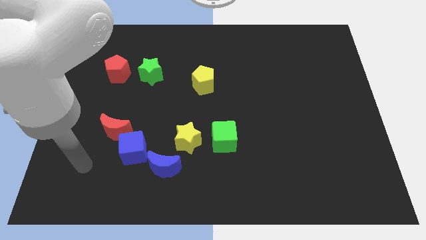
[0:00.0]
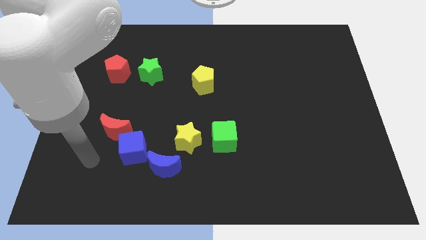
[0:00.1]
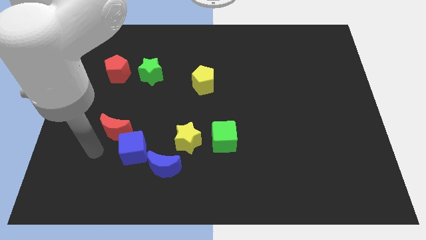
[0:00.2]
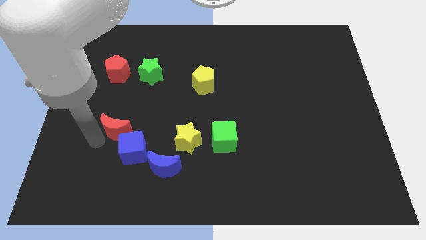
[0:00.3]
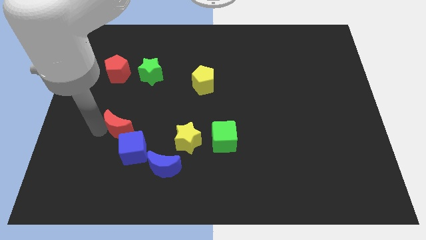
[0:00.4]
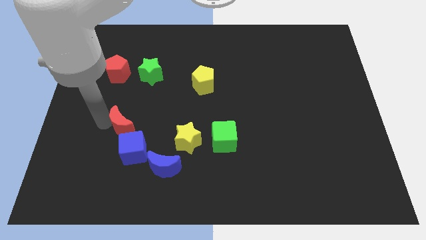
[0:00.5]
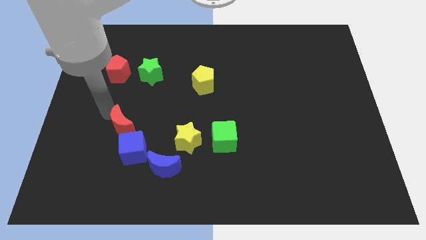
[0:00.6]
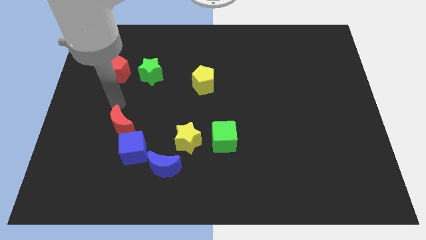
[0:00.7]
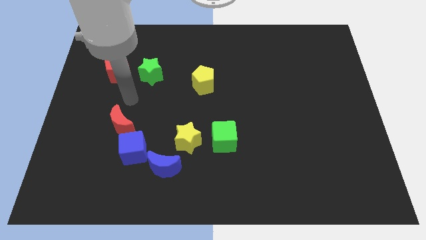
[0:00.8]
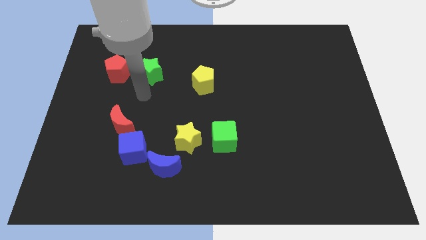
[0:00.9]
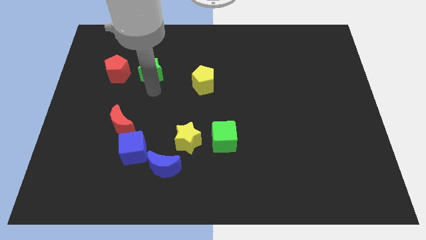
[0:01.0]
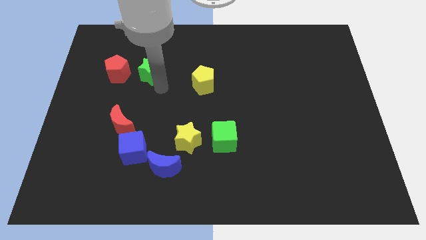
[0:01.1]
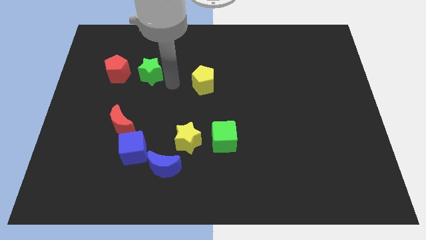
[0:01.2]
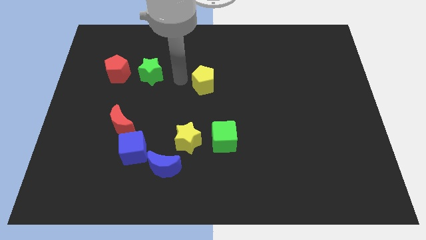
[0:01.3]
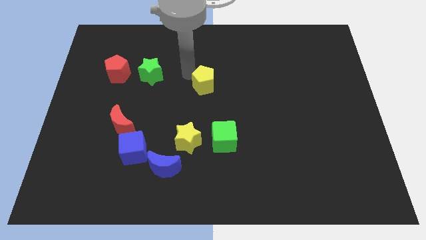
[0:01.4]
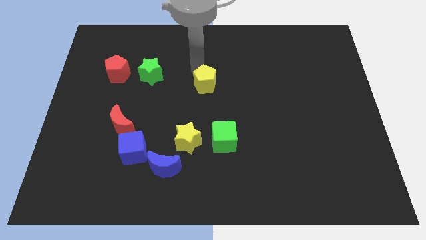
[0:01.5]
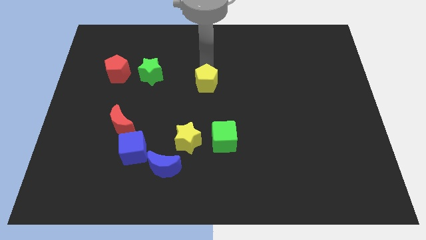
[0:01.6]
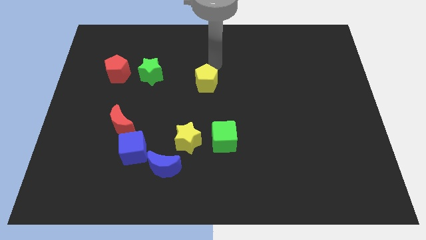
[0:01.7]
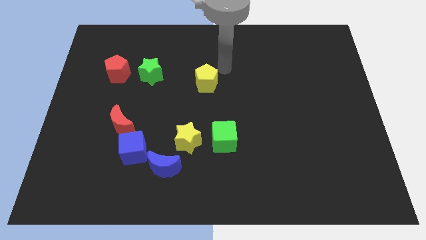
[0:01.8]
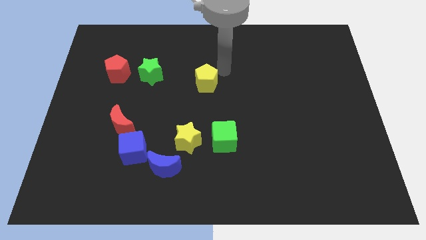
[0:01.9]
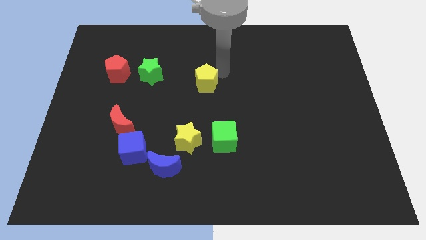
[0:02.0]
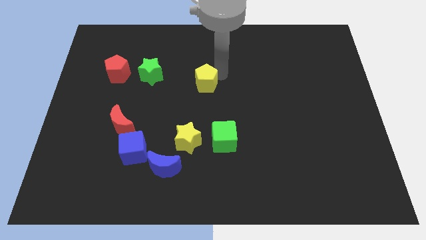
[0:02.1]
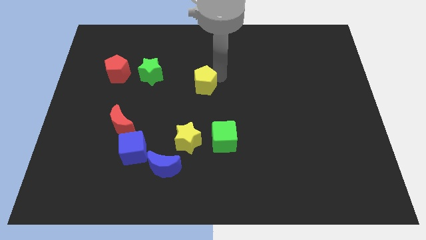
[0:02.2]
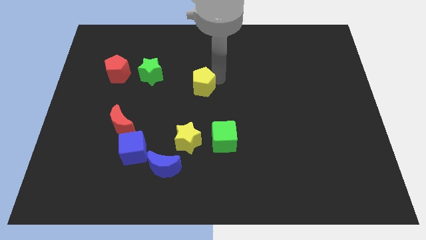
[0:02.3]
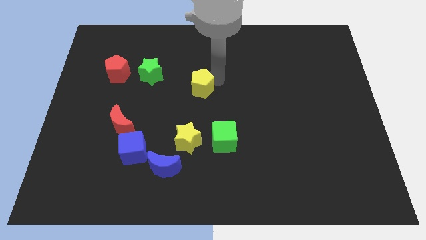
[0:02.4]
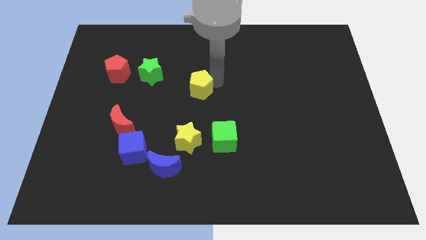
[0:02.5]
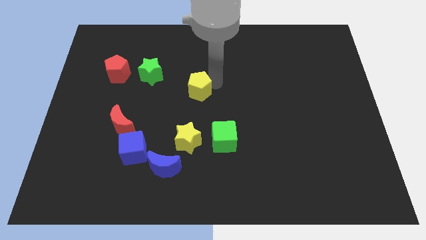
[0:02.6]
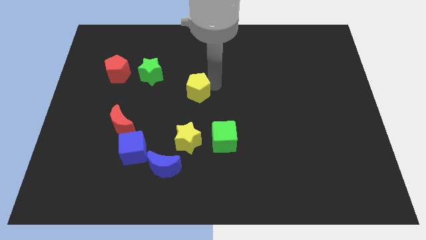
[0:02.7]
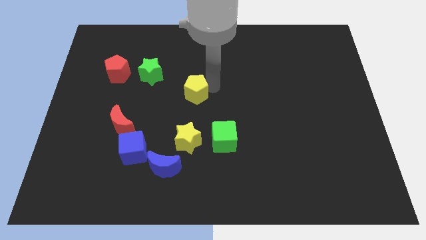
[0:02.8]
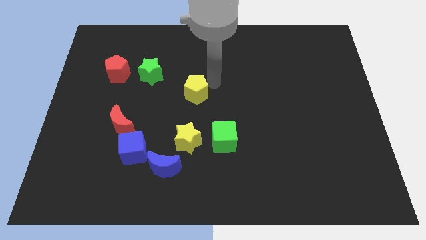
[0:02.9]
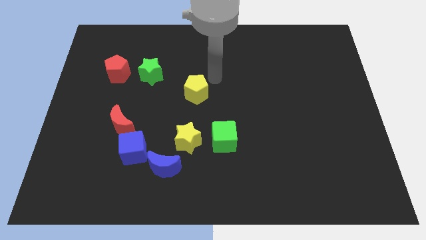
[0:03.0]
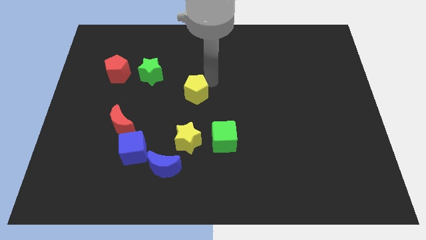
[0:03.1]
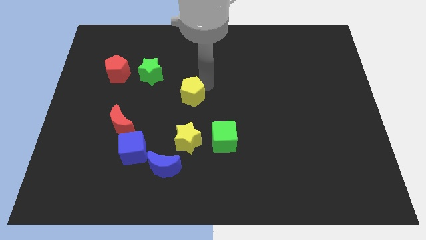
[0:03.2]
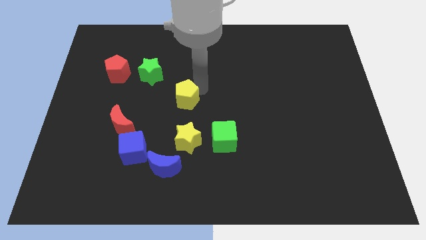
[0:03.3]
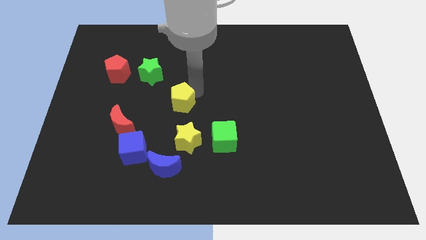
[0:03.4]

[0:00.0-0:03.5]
slide the yellow pentagon downwards and left a bit

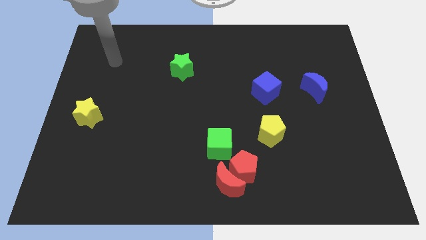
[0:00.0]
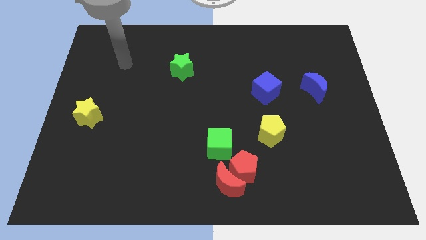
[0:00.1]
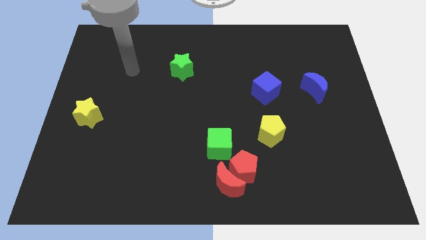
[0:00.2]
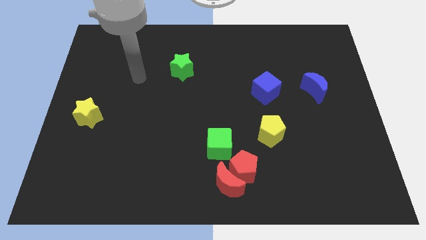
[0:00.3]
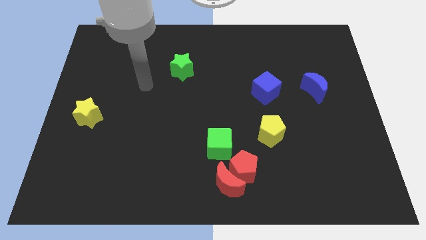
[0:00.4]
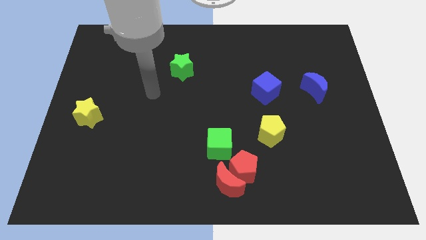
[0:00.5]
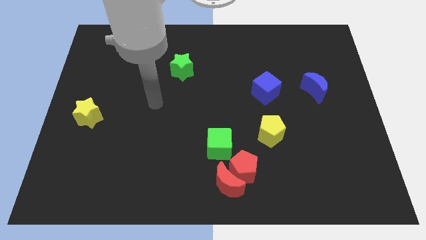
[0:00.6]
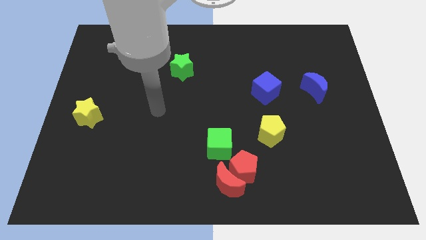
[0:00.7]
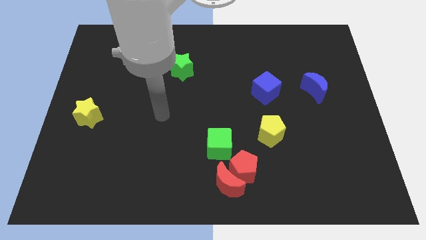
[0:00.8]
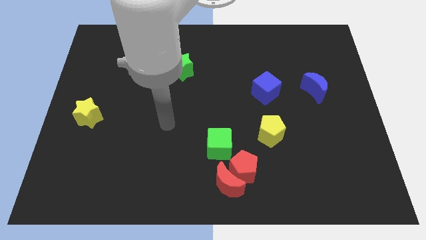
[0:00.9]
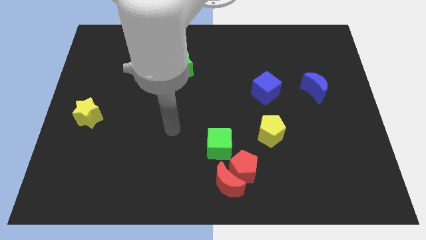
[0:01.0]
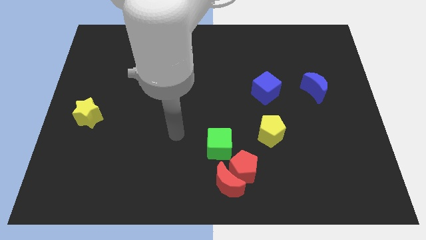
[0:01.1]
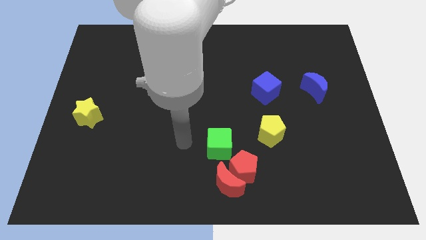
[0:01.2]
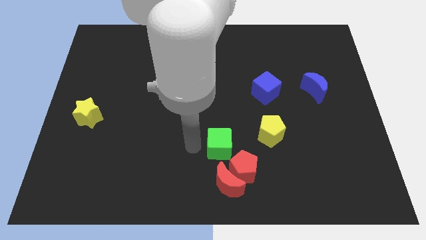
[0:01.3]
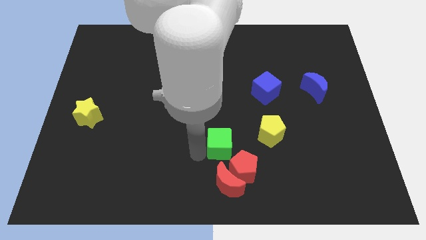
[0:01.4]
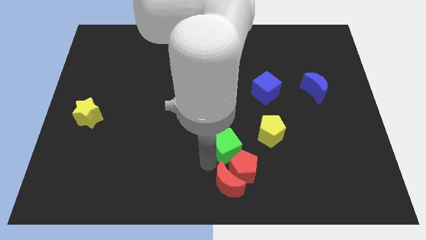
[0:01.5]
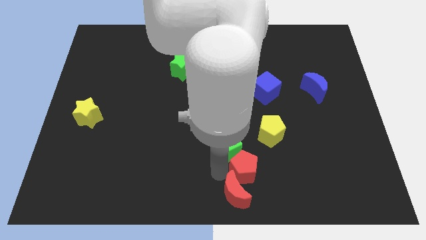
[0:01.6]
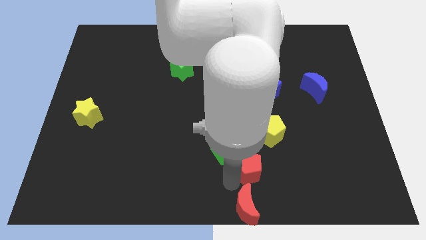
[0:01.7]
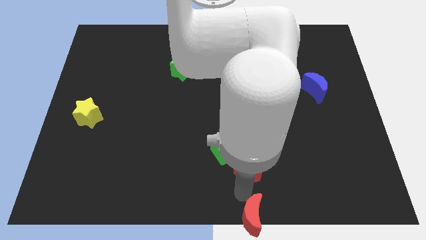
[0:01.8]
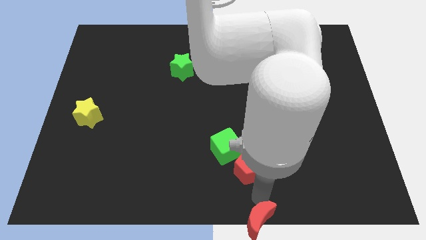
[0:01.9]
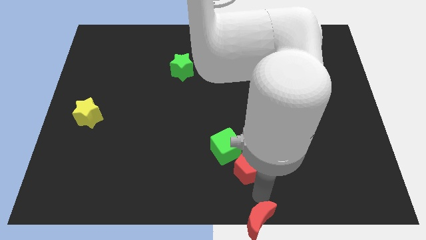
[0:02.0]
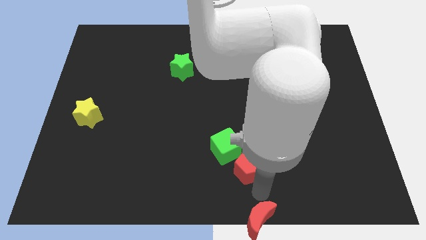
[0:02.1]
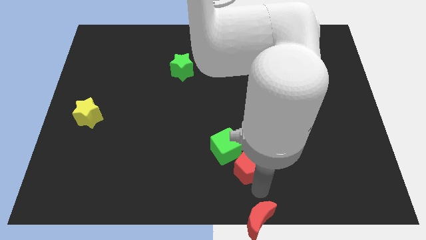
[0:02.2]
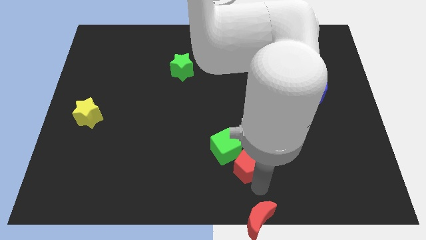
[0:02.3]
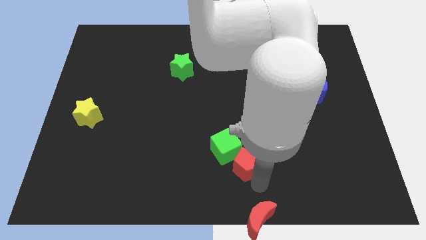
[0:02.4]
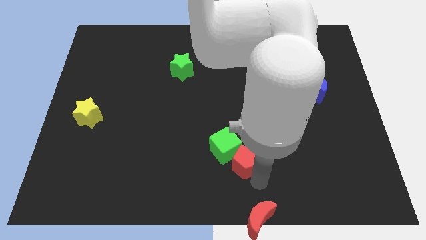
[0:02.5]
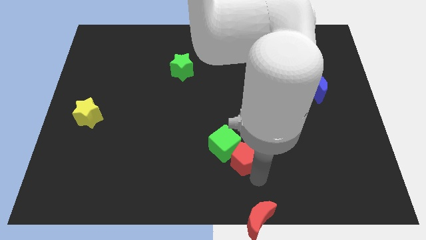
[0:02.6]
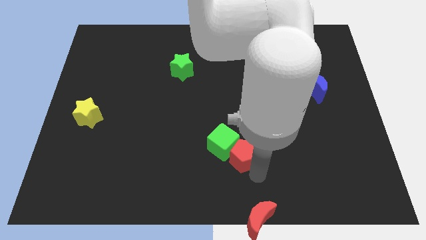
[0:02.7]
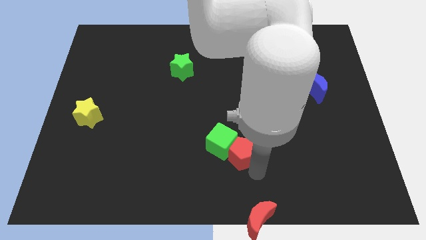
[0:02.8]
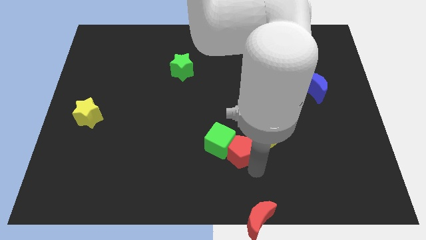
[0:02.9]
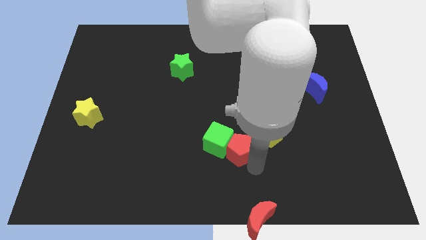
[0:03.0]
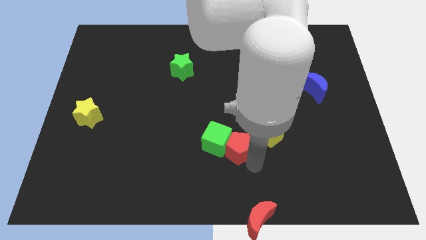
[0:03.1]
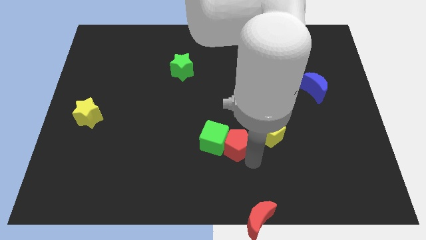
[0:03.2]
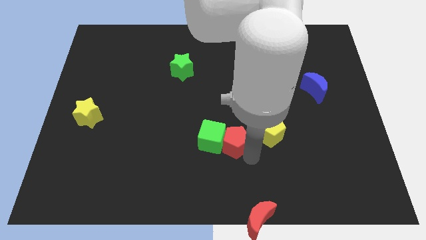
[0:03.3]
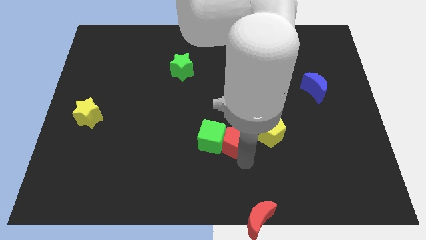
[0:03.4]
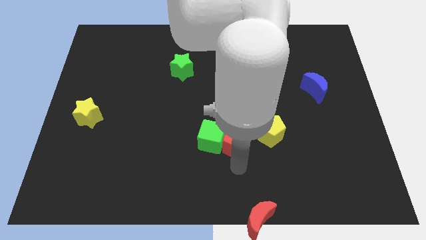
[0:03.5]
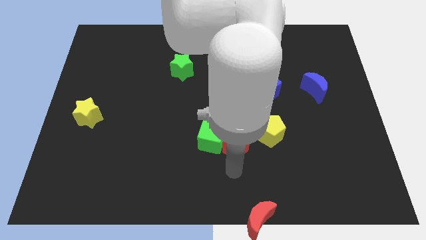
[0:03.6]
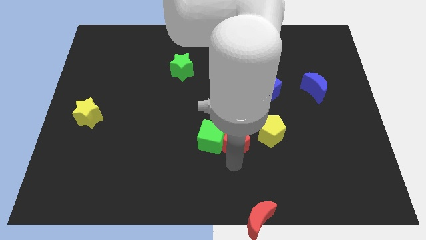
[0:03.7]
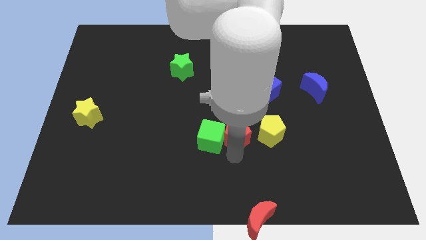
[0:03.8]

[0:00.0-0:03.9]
push the red pentagon up a little bit

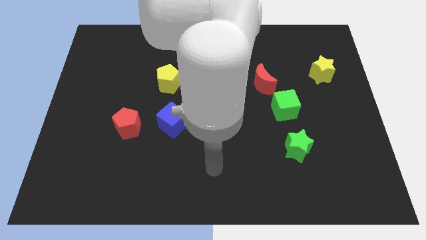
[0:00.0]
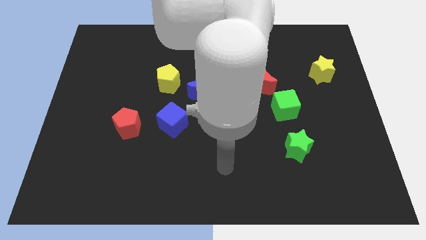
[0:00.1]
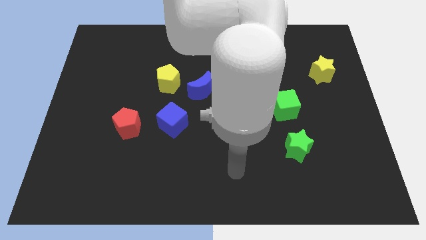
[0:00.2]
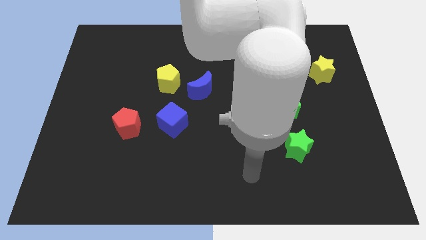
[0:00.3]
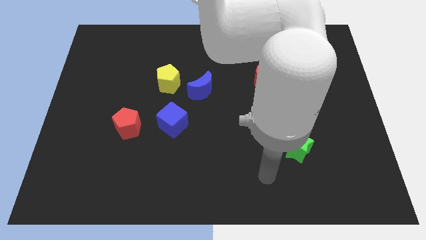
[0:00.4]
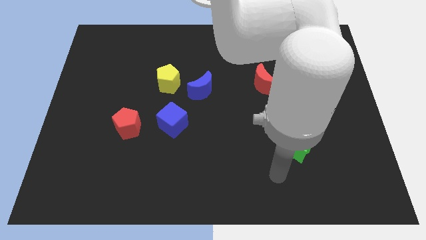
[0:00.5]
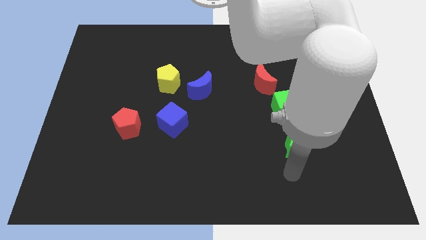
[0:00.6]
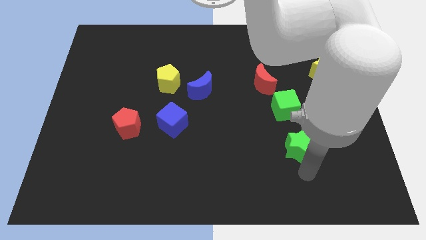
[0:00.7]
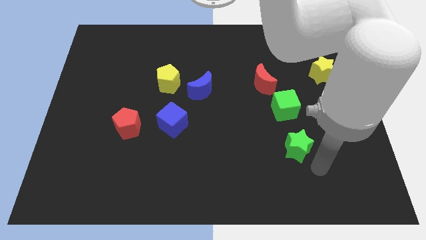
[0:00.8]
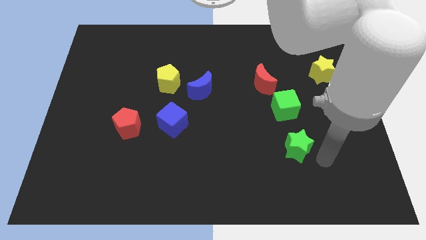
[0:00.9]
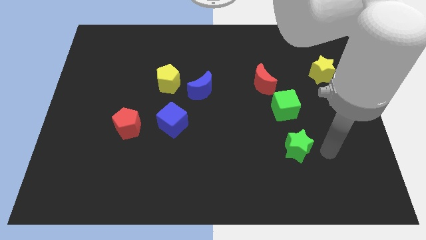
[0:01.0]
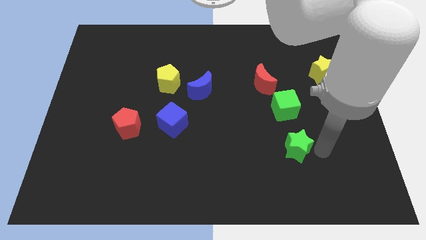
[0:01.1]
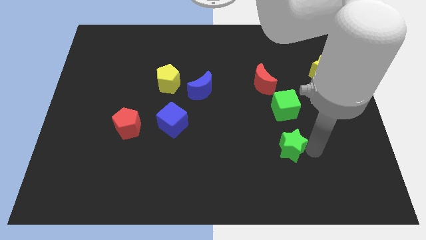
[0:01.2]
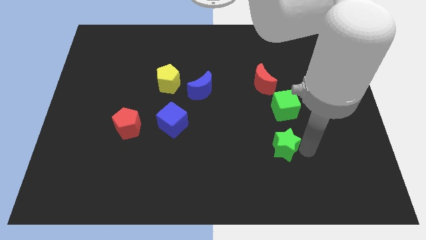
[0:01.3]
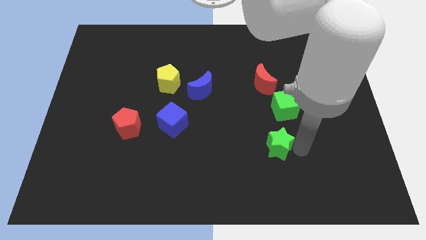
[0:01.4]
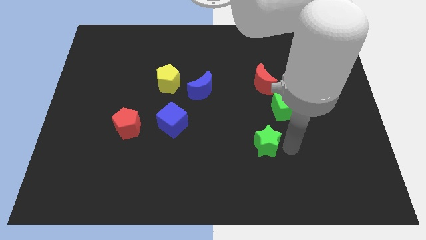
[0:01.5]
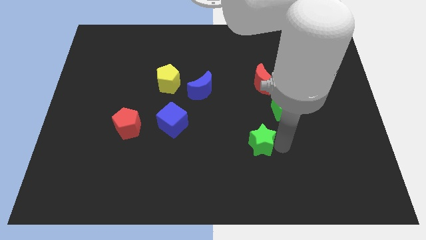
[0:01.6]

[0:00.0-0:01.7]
slide the green star left a little
